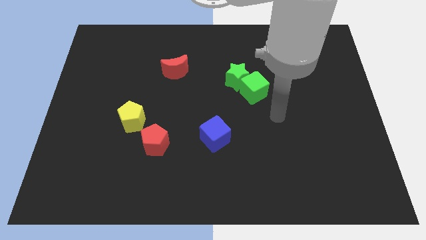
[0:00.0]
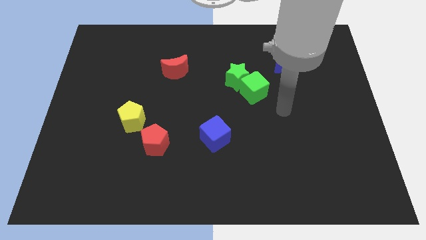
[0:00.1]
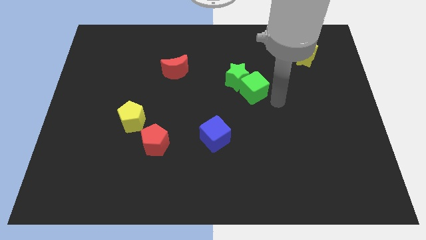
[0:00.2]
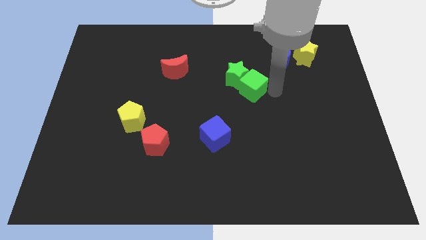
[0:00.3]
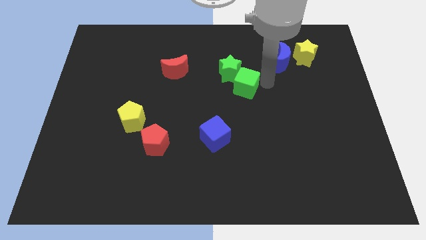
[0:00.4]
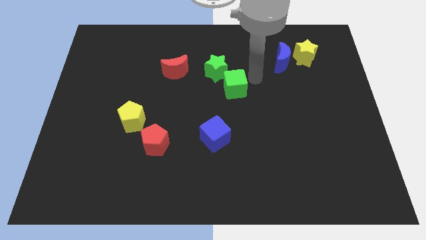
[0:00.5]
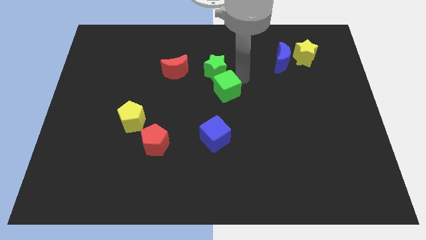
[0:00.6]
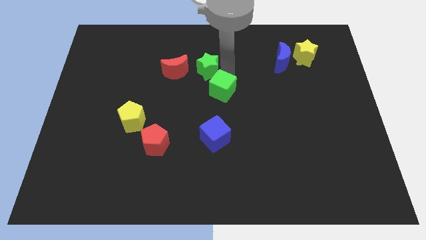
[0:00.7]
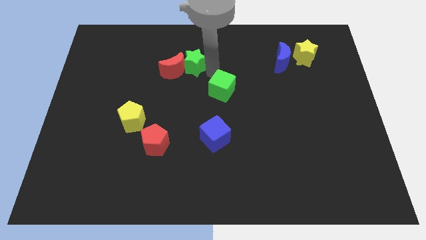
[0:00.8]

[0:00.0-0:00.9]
move the green cube away from the green star

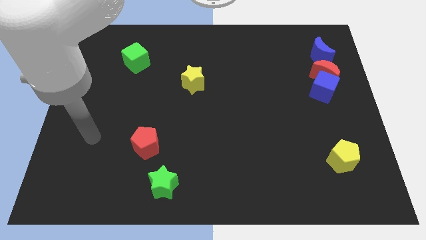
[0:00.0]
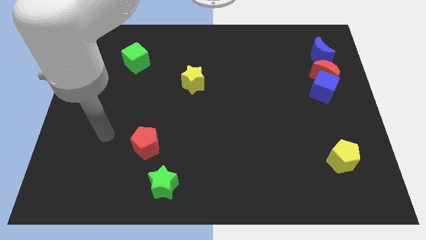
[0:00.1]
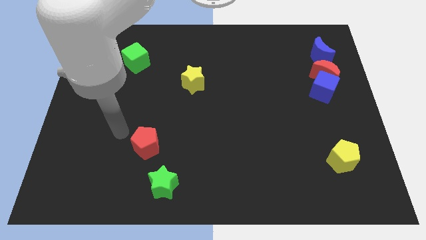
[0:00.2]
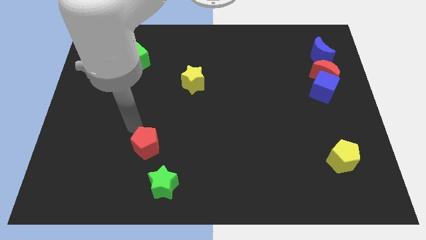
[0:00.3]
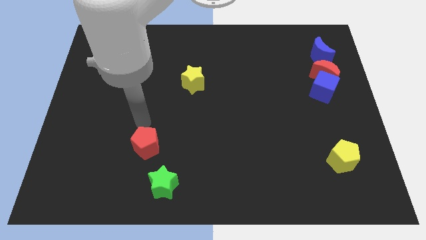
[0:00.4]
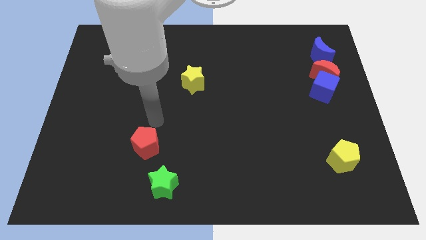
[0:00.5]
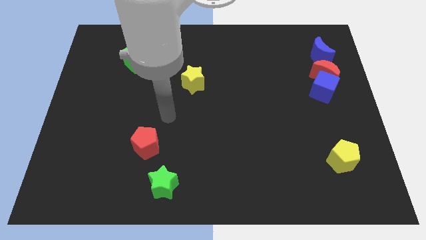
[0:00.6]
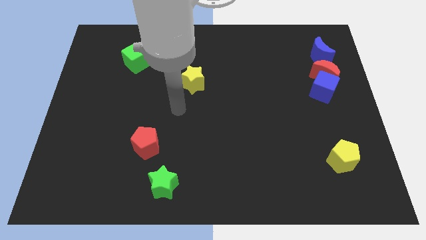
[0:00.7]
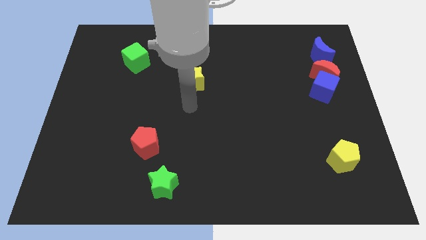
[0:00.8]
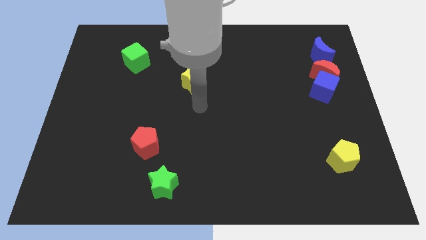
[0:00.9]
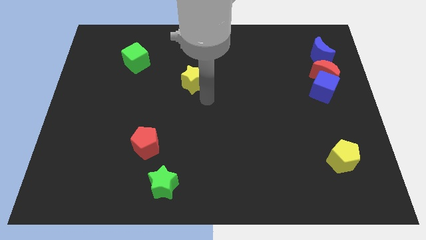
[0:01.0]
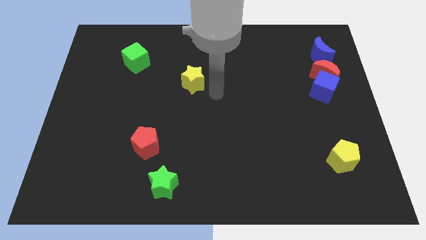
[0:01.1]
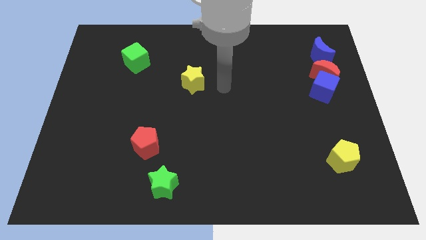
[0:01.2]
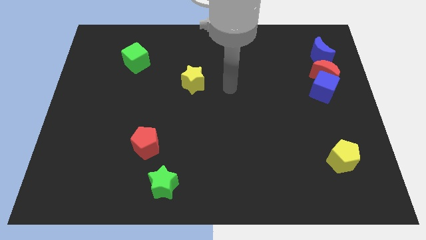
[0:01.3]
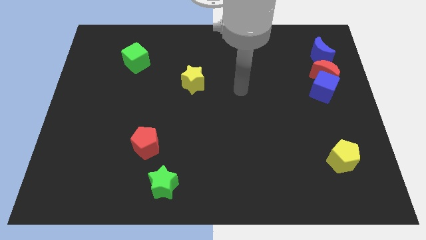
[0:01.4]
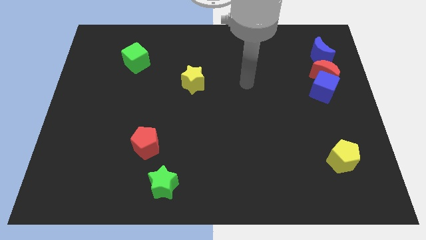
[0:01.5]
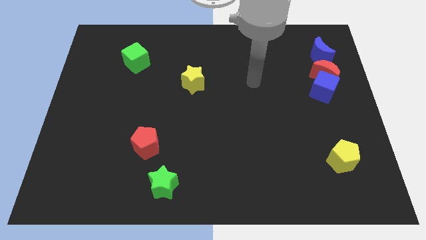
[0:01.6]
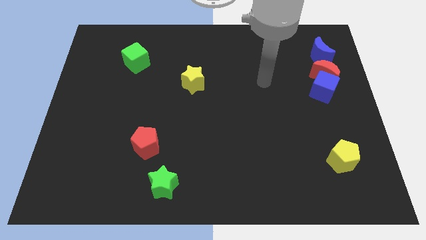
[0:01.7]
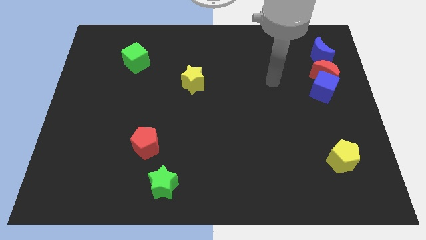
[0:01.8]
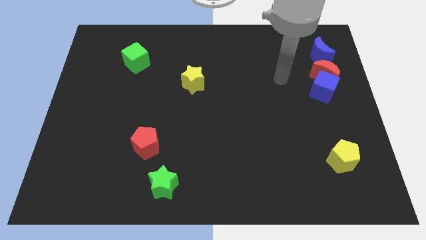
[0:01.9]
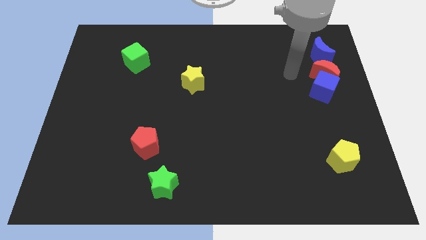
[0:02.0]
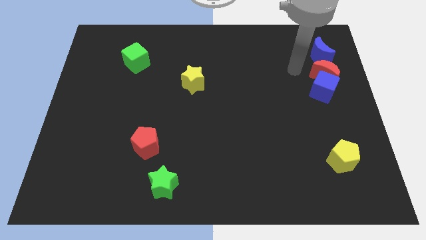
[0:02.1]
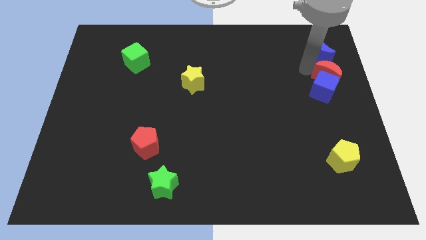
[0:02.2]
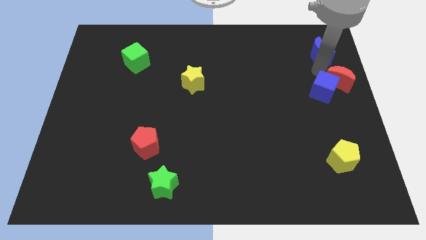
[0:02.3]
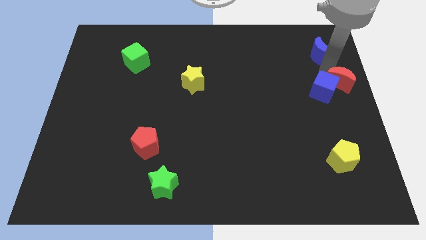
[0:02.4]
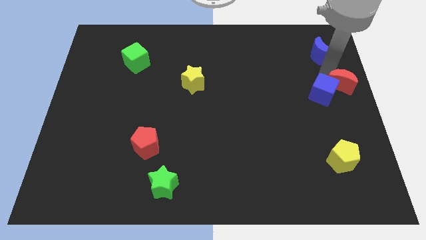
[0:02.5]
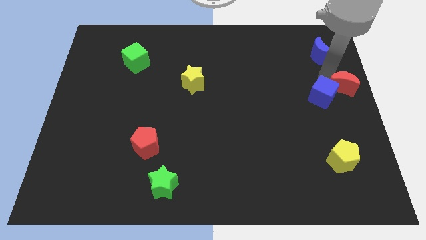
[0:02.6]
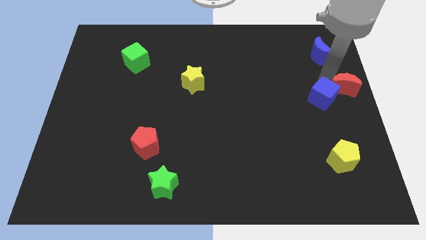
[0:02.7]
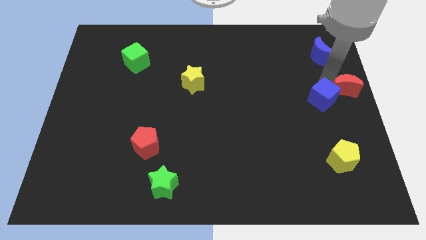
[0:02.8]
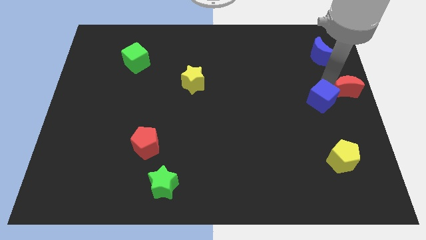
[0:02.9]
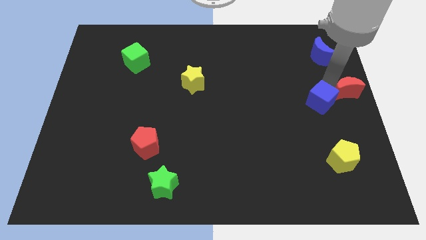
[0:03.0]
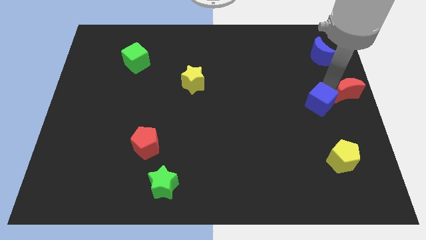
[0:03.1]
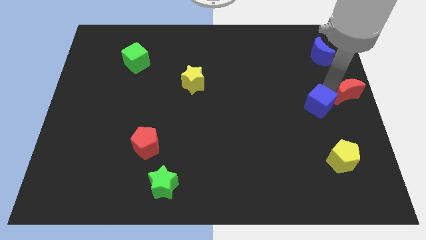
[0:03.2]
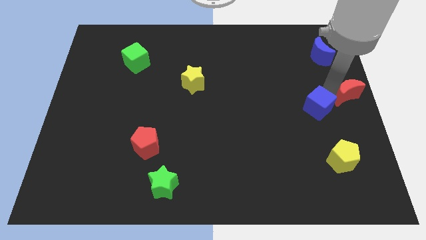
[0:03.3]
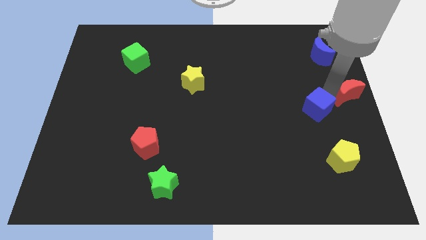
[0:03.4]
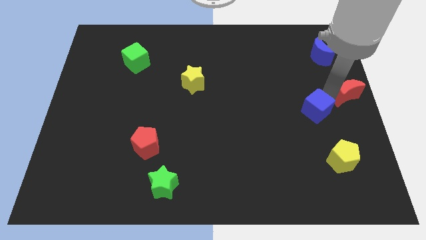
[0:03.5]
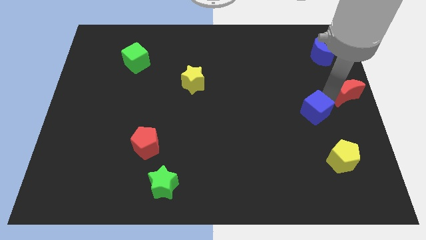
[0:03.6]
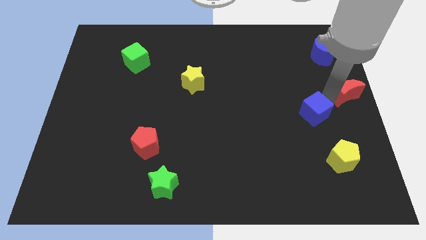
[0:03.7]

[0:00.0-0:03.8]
separate the blue cube from the red moon

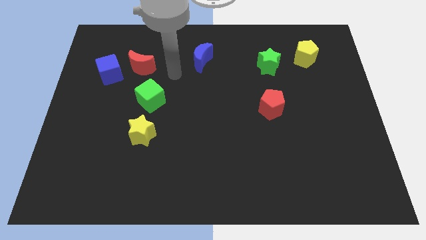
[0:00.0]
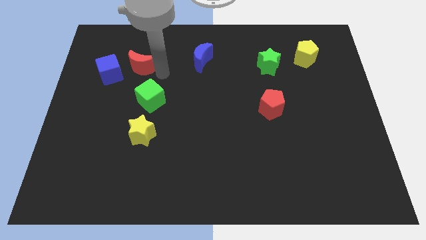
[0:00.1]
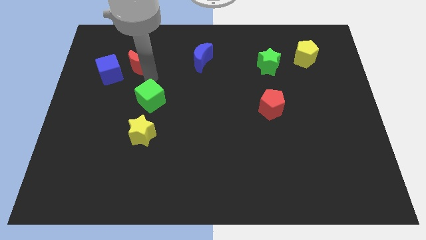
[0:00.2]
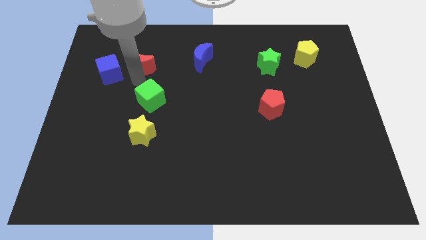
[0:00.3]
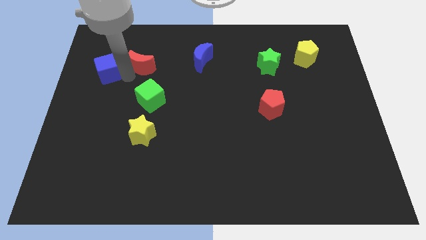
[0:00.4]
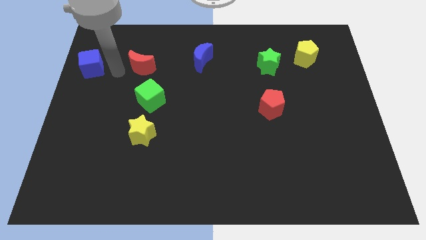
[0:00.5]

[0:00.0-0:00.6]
move the red moon away from the blue cube

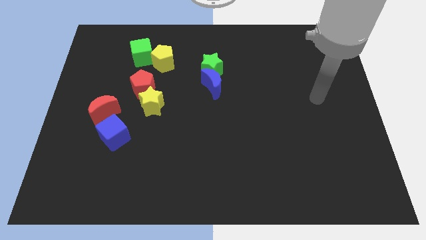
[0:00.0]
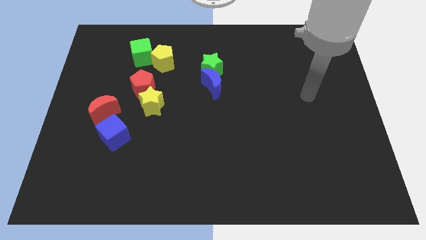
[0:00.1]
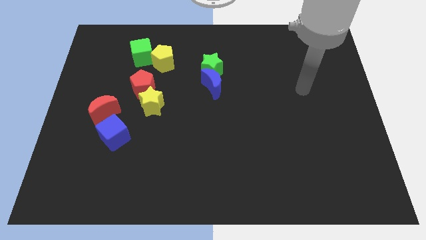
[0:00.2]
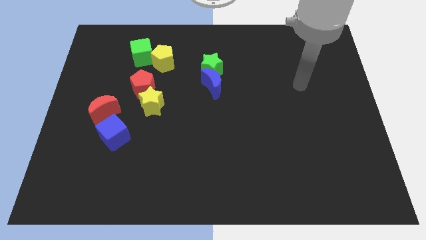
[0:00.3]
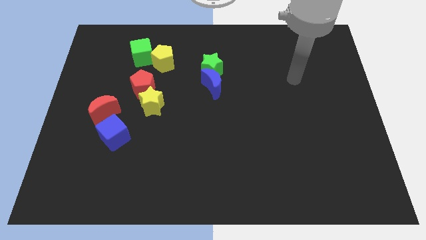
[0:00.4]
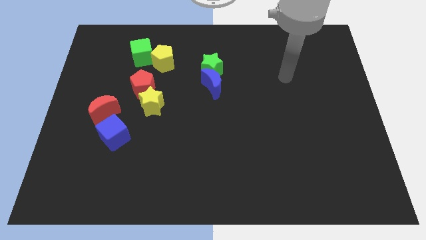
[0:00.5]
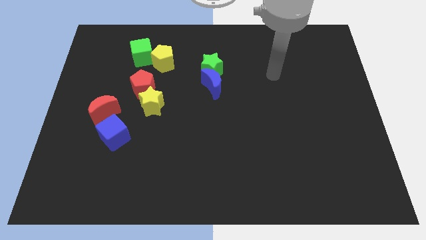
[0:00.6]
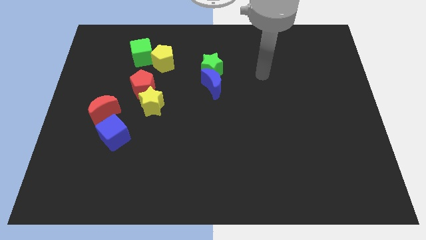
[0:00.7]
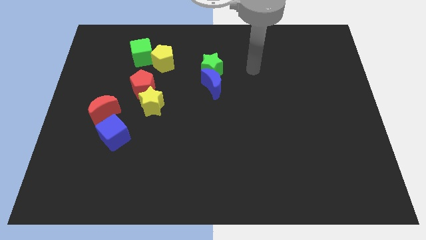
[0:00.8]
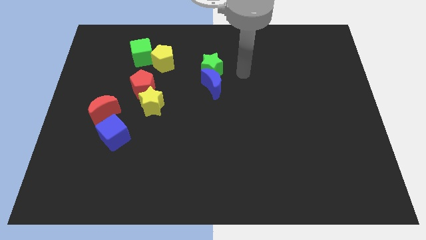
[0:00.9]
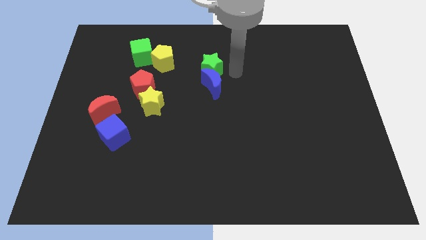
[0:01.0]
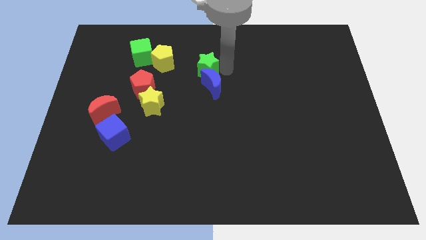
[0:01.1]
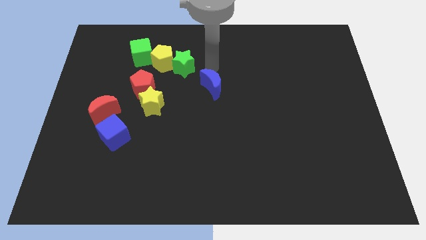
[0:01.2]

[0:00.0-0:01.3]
move the blue moon away from the green star

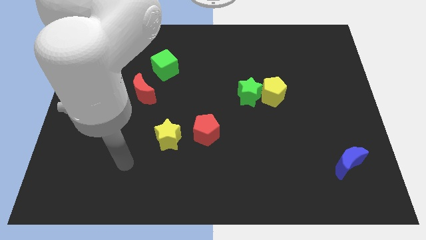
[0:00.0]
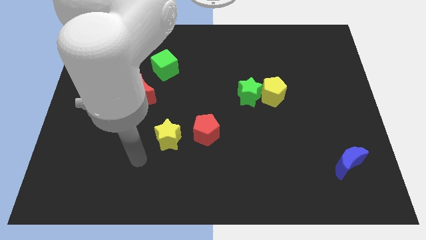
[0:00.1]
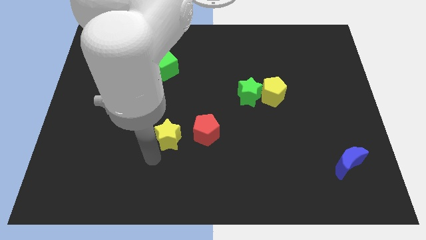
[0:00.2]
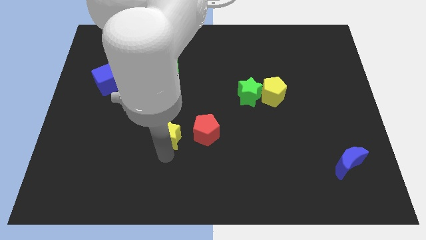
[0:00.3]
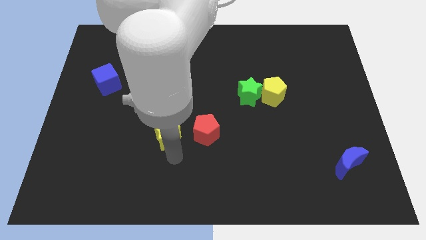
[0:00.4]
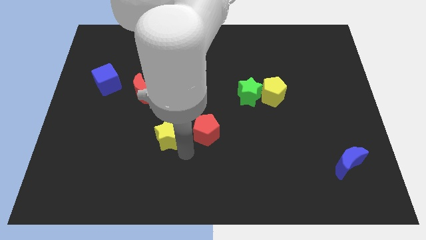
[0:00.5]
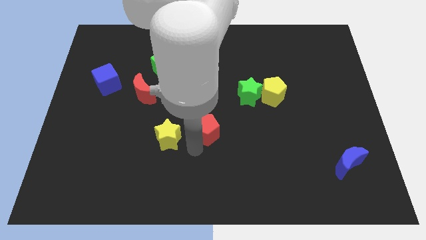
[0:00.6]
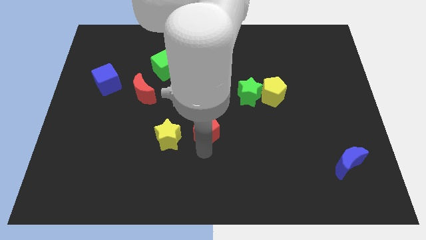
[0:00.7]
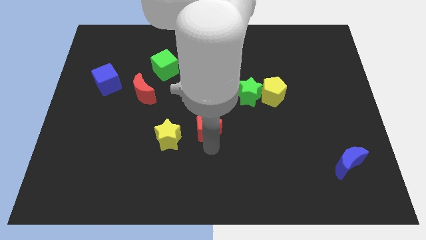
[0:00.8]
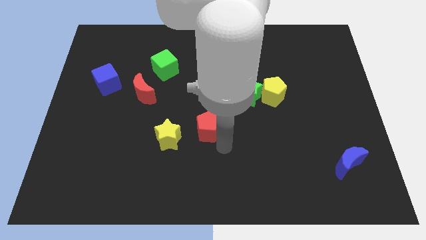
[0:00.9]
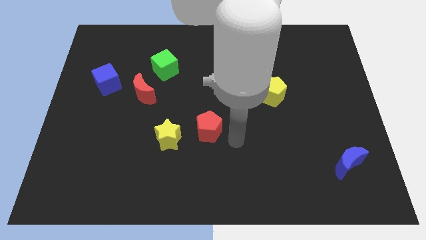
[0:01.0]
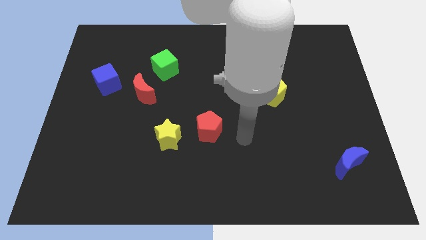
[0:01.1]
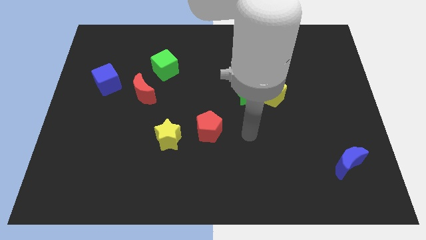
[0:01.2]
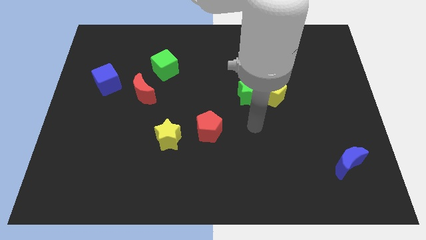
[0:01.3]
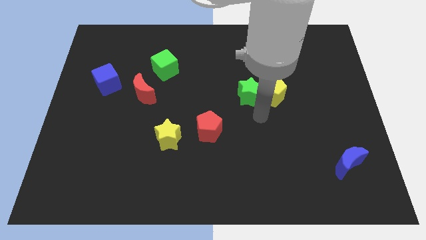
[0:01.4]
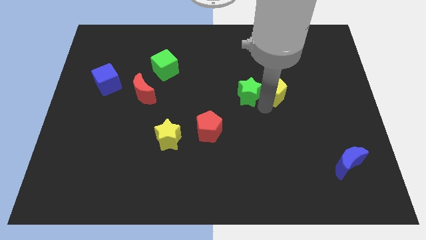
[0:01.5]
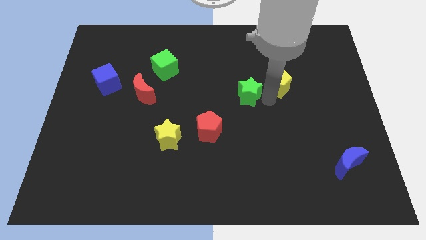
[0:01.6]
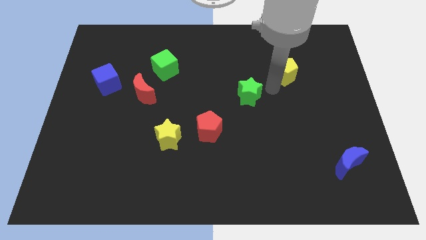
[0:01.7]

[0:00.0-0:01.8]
separate the green star from the yellow pentagon

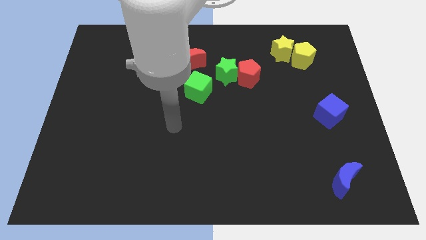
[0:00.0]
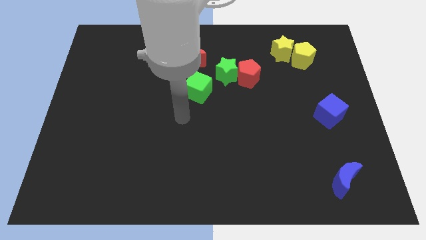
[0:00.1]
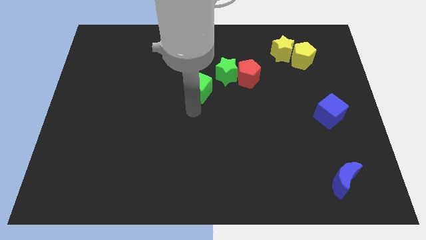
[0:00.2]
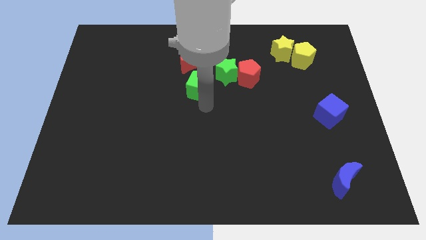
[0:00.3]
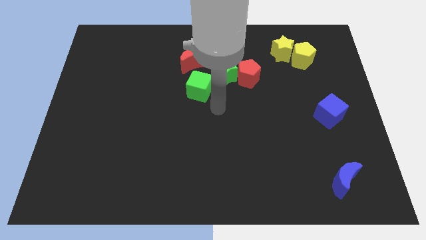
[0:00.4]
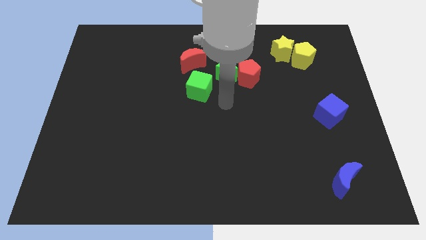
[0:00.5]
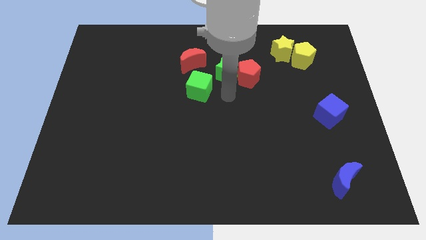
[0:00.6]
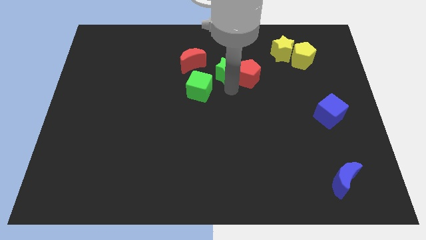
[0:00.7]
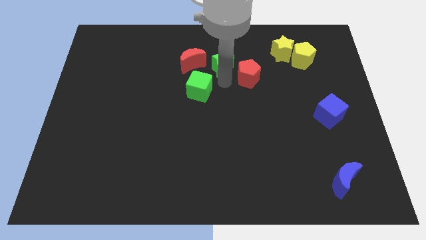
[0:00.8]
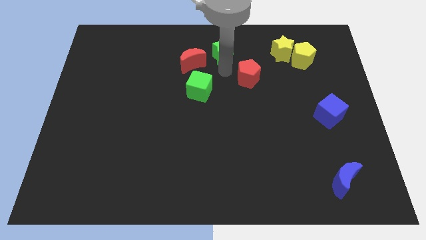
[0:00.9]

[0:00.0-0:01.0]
move the red pentagon away from the green star
